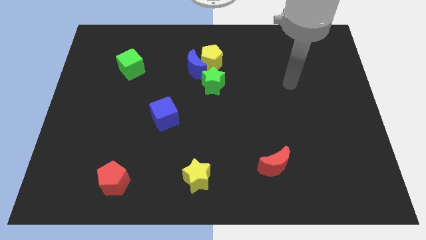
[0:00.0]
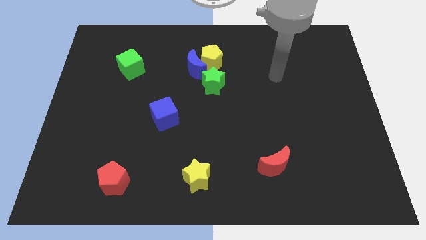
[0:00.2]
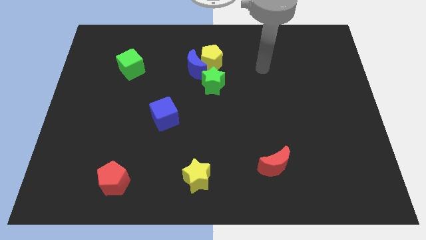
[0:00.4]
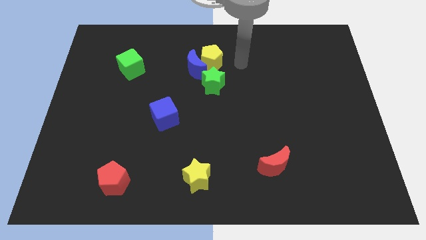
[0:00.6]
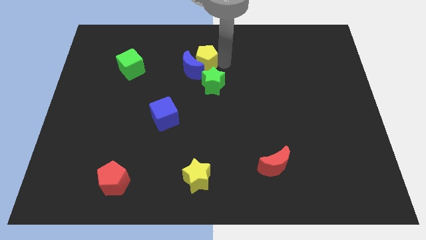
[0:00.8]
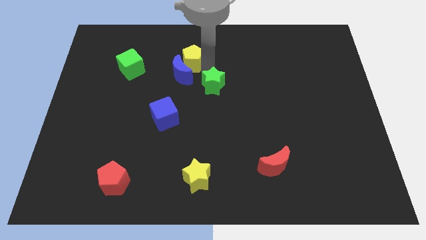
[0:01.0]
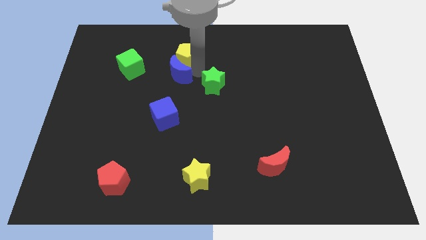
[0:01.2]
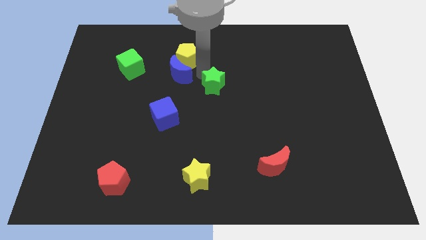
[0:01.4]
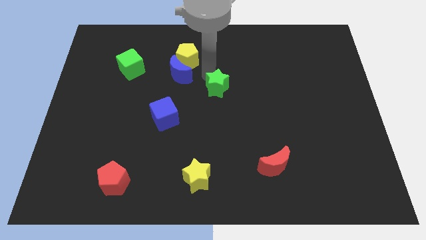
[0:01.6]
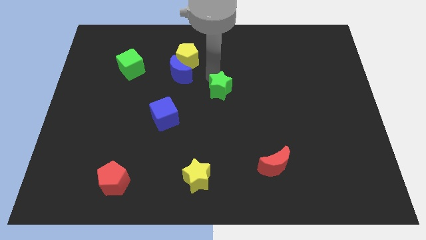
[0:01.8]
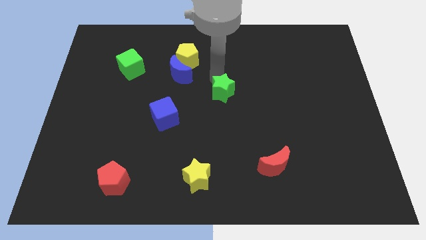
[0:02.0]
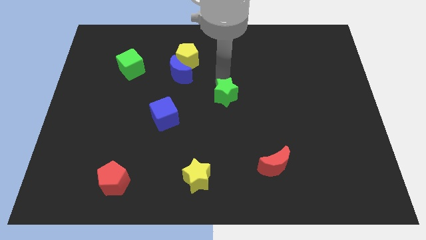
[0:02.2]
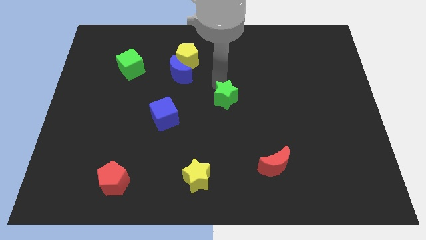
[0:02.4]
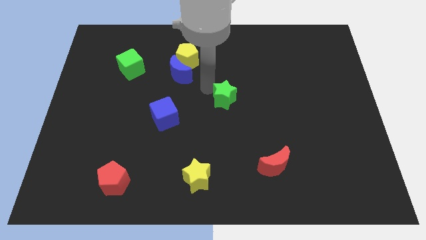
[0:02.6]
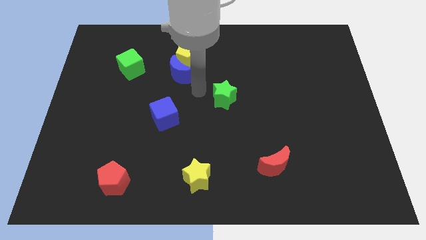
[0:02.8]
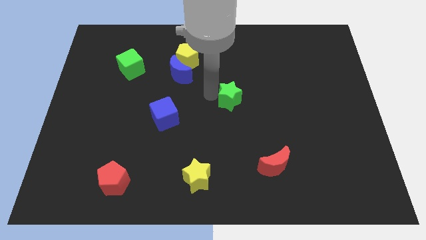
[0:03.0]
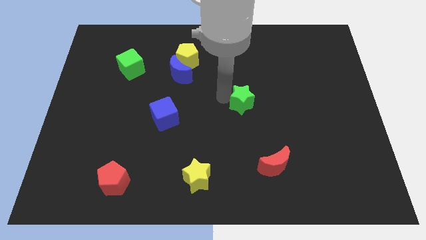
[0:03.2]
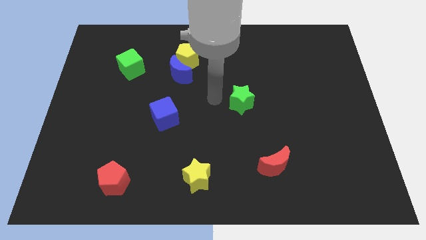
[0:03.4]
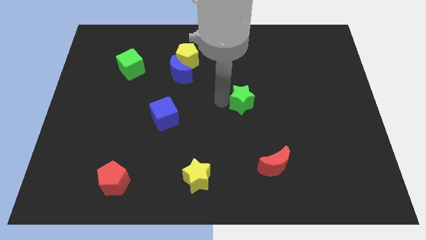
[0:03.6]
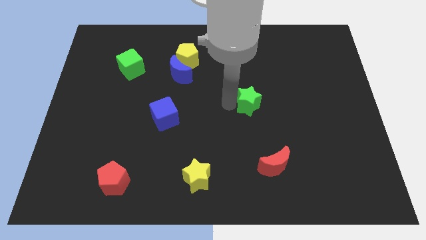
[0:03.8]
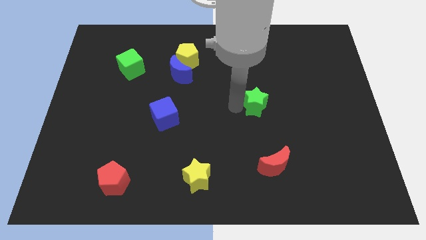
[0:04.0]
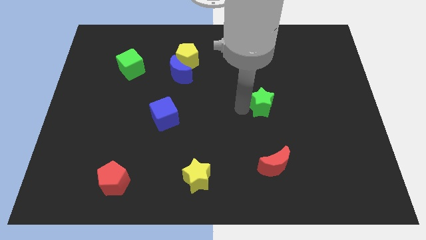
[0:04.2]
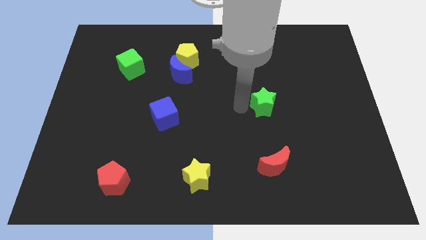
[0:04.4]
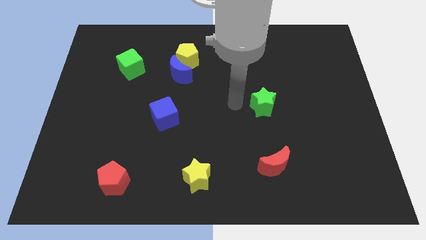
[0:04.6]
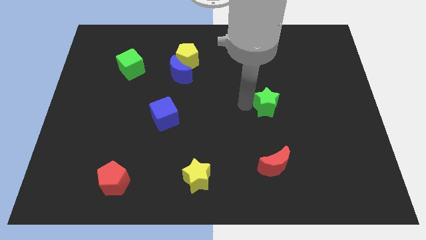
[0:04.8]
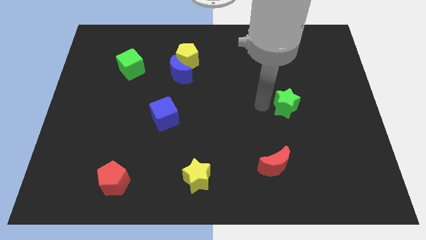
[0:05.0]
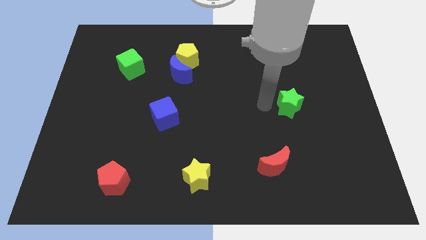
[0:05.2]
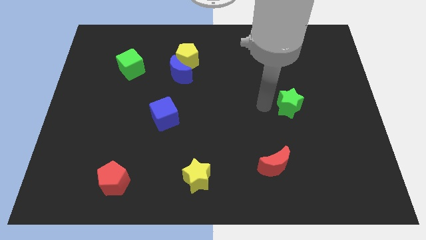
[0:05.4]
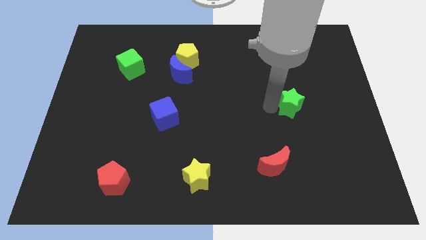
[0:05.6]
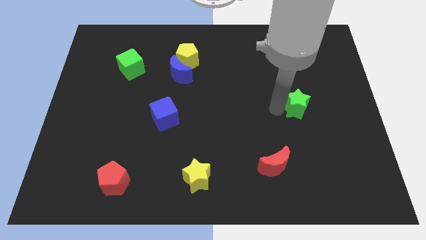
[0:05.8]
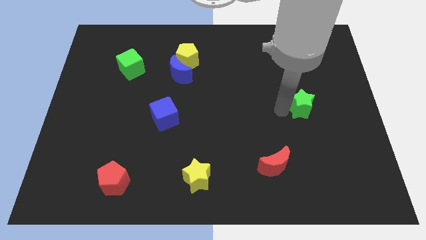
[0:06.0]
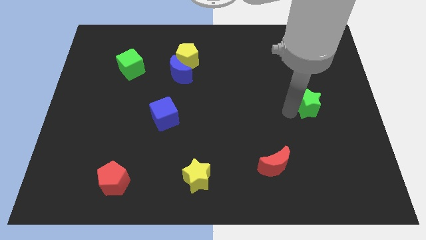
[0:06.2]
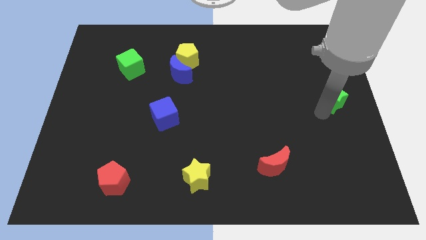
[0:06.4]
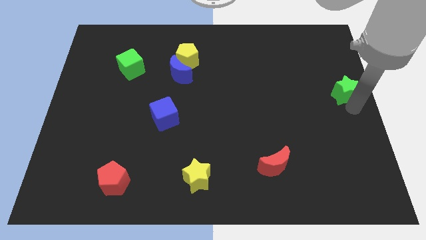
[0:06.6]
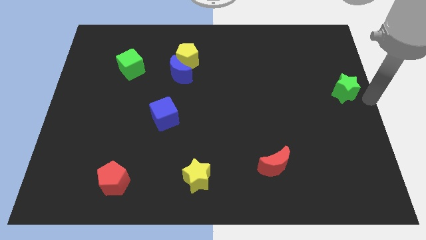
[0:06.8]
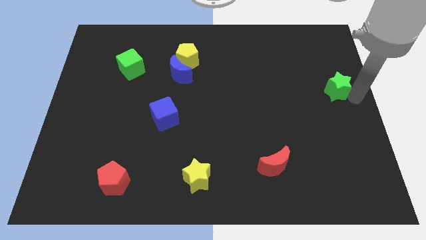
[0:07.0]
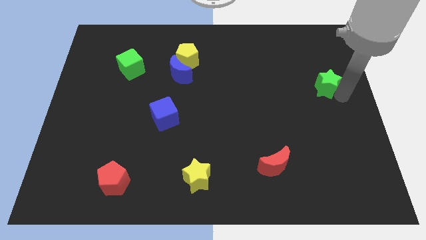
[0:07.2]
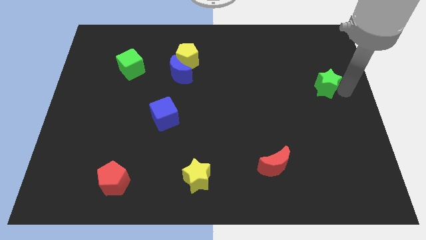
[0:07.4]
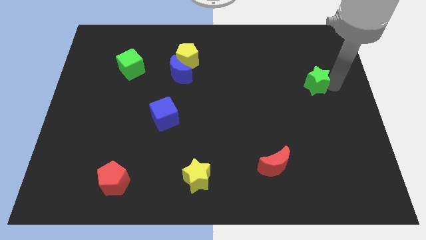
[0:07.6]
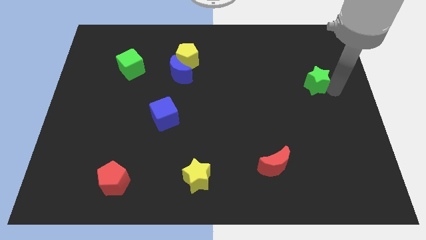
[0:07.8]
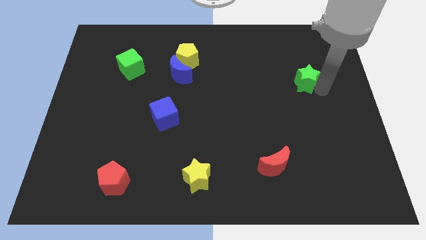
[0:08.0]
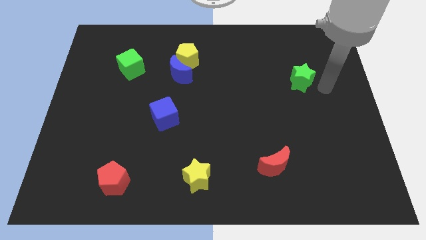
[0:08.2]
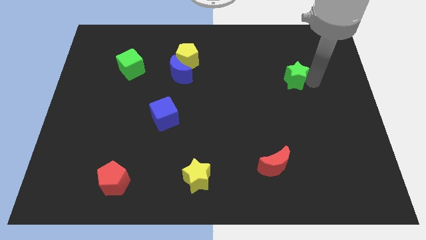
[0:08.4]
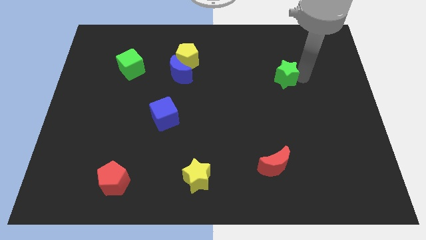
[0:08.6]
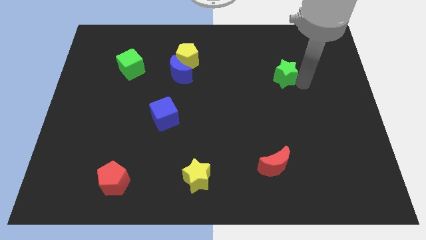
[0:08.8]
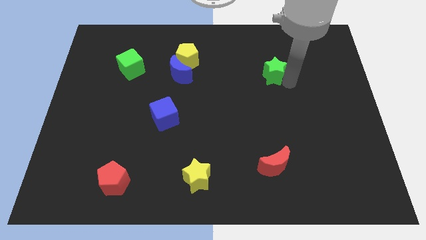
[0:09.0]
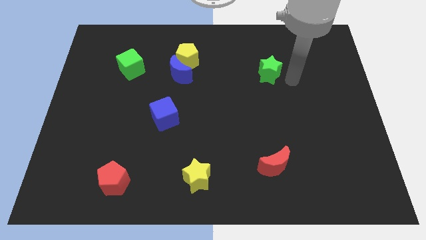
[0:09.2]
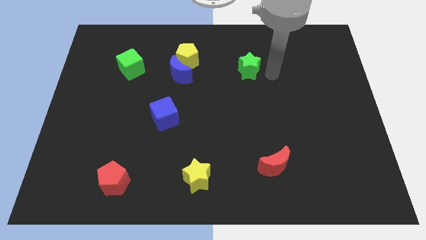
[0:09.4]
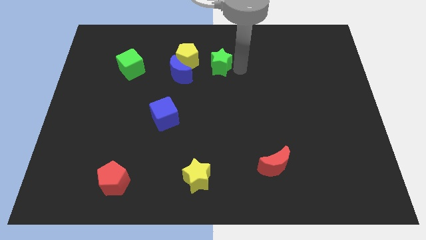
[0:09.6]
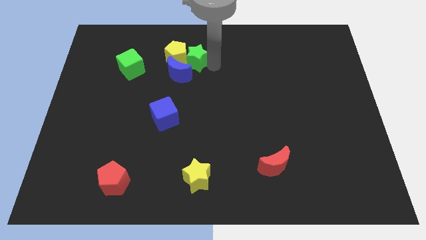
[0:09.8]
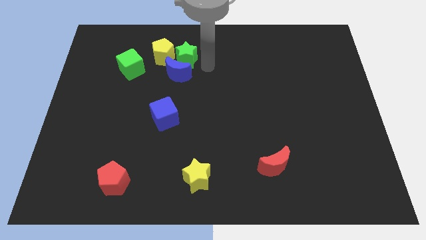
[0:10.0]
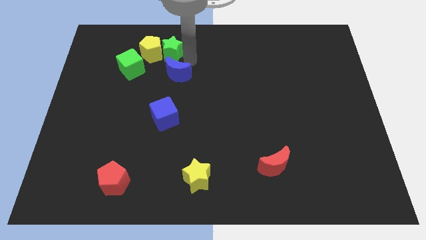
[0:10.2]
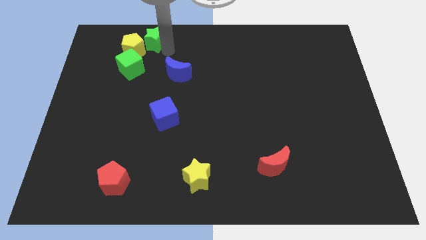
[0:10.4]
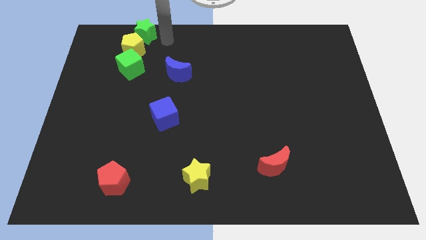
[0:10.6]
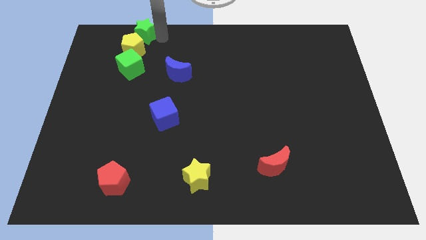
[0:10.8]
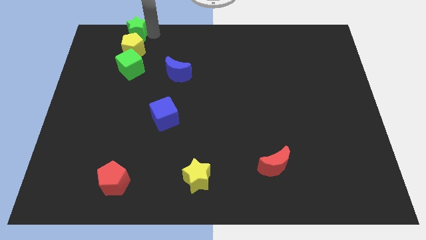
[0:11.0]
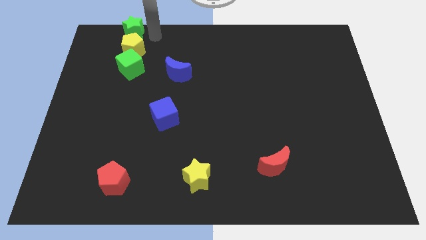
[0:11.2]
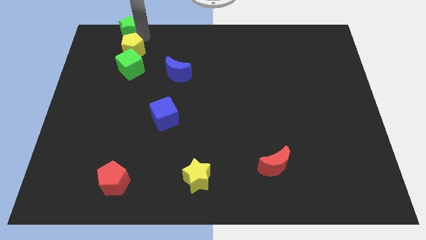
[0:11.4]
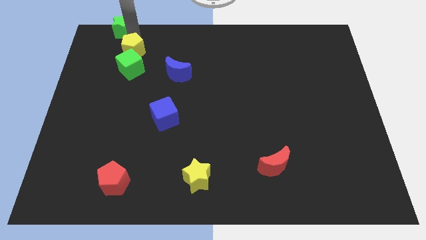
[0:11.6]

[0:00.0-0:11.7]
put the green star to the top left
